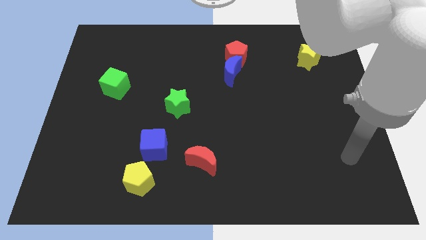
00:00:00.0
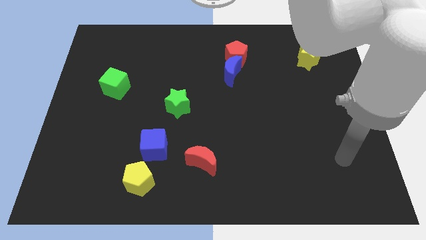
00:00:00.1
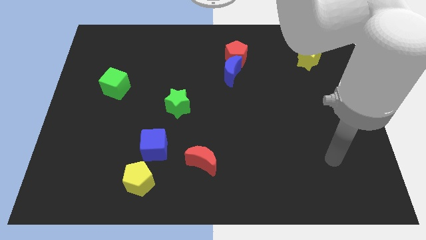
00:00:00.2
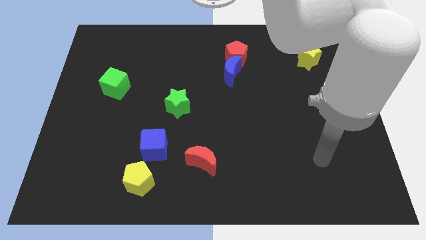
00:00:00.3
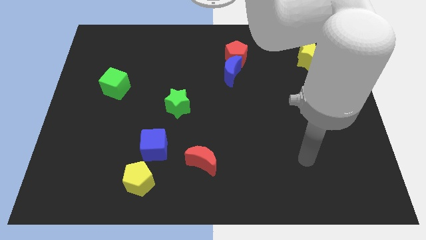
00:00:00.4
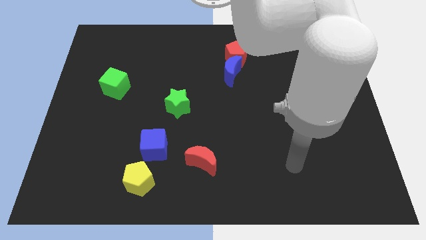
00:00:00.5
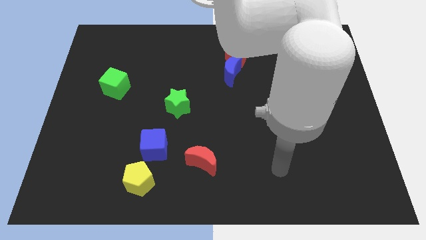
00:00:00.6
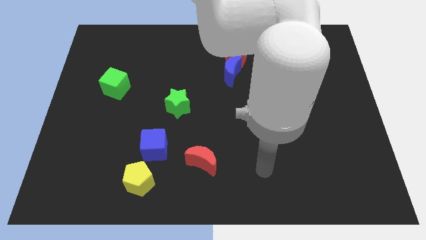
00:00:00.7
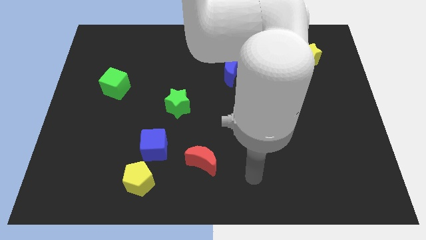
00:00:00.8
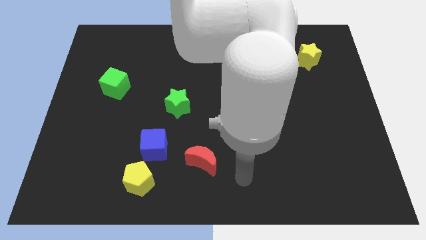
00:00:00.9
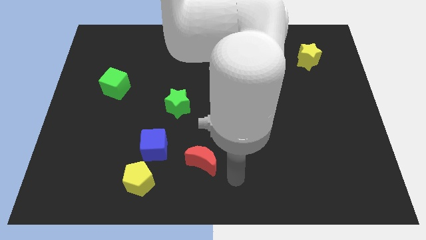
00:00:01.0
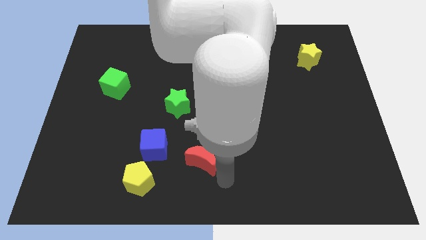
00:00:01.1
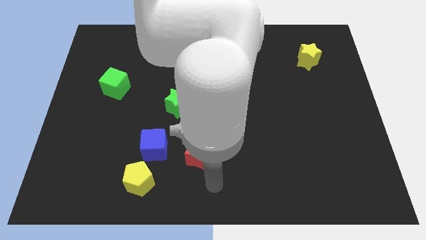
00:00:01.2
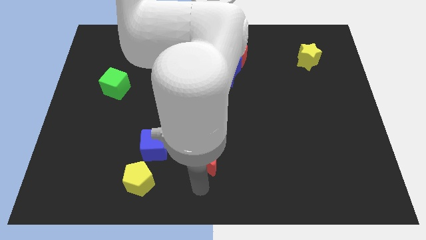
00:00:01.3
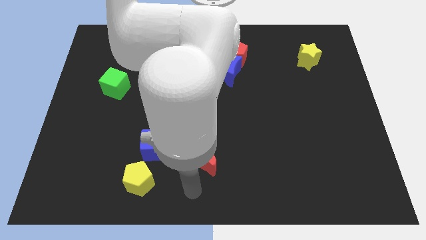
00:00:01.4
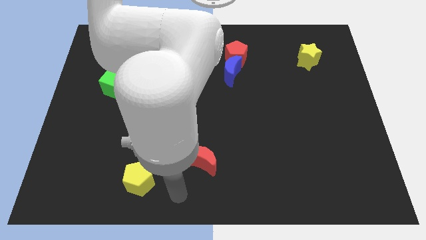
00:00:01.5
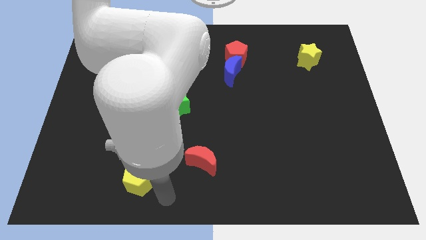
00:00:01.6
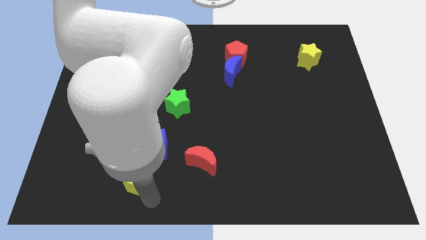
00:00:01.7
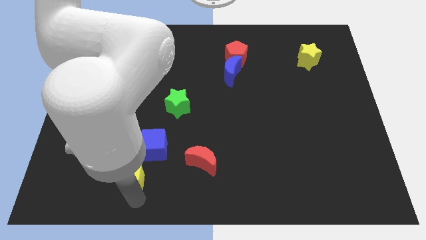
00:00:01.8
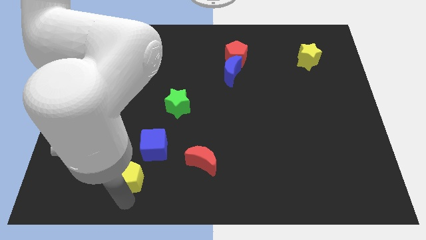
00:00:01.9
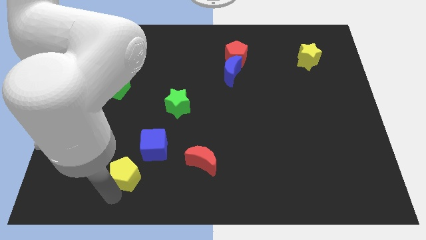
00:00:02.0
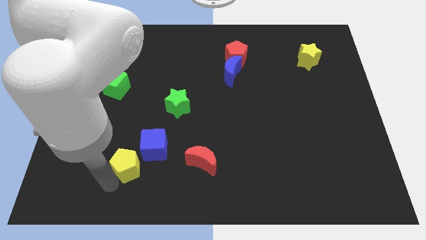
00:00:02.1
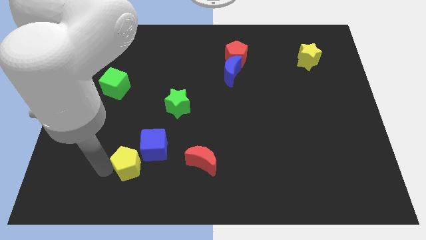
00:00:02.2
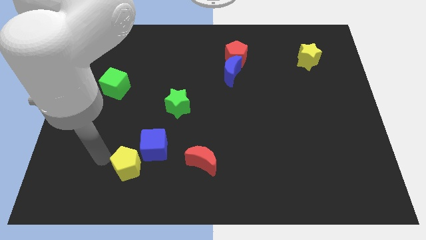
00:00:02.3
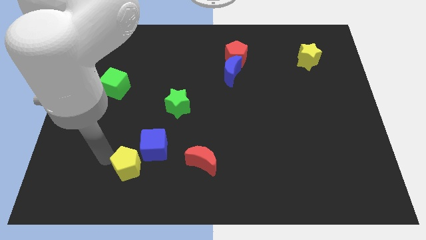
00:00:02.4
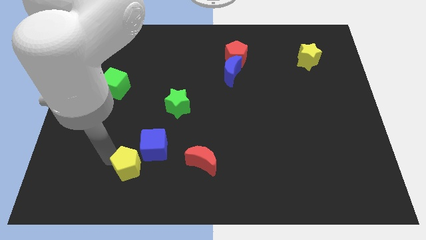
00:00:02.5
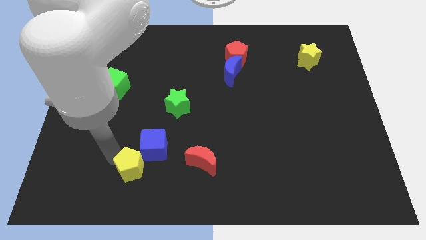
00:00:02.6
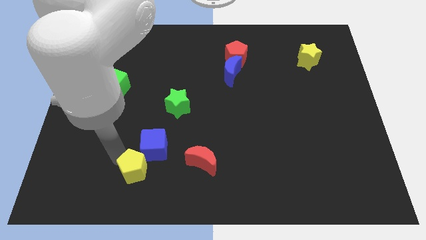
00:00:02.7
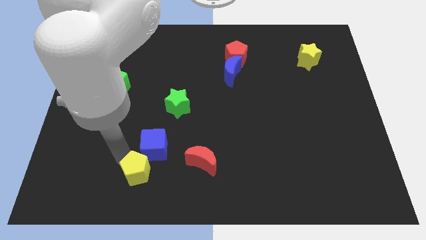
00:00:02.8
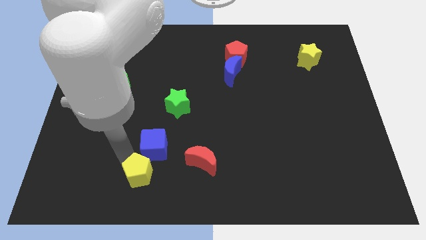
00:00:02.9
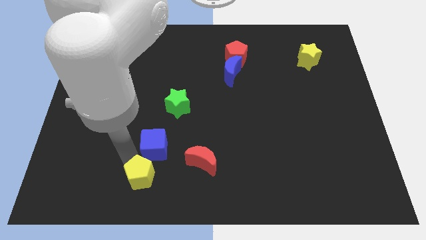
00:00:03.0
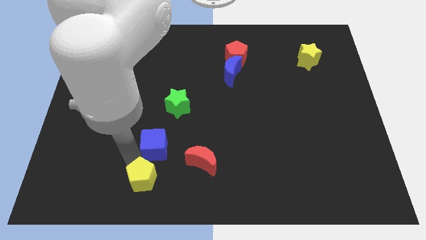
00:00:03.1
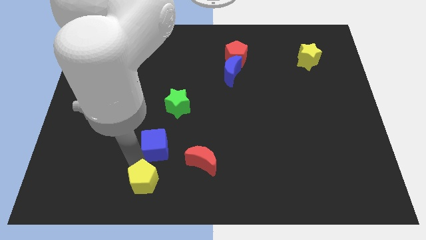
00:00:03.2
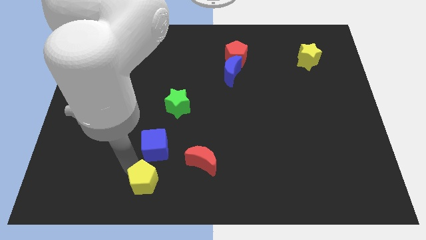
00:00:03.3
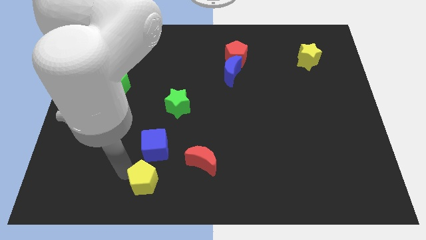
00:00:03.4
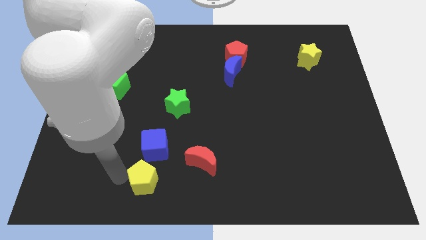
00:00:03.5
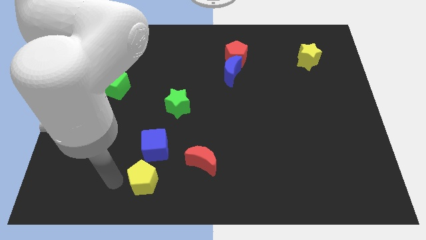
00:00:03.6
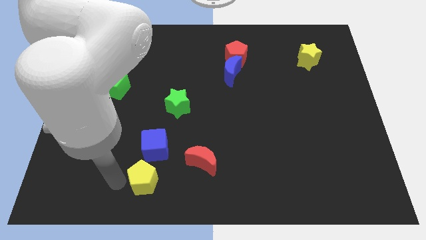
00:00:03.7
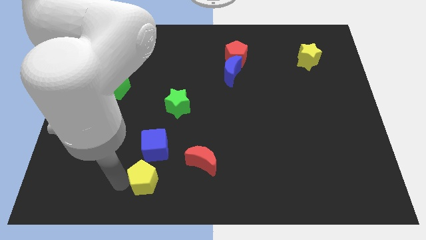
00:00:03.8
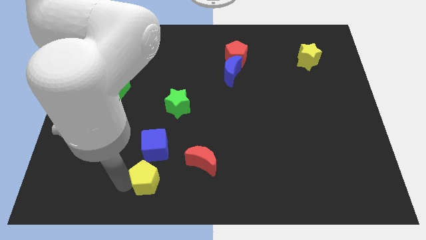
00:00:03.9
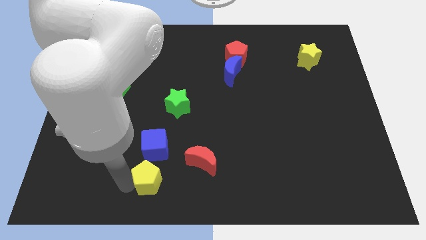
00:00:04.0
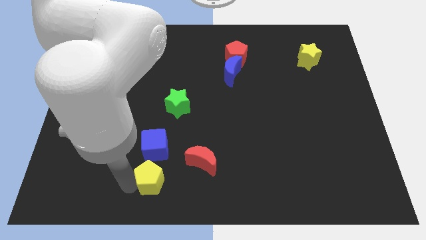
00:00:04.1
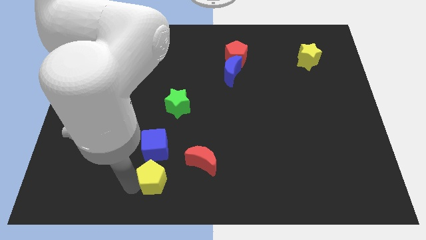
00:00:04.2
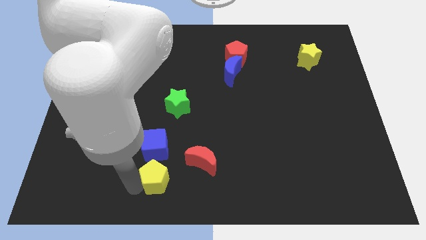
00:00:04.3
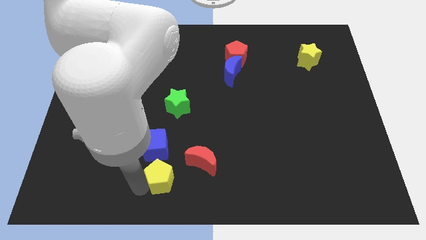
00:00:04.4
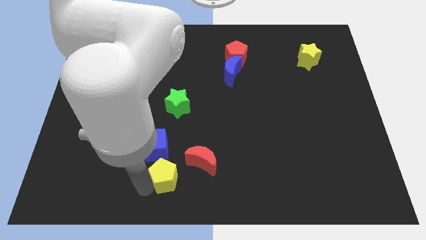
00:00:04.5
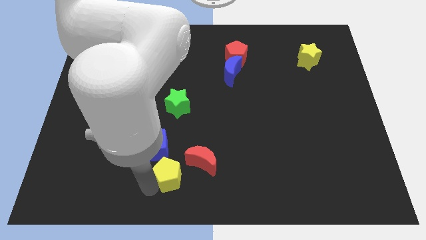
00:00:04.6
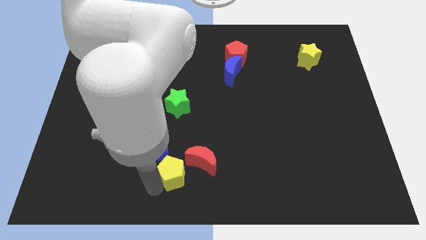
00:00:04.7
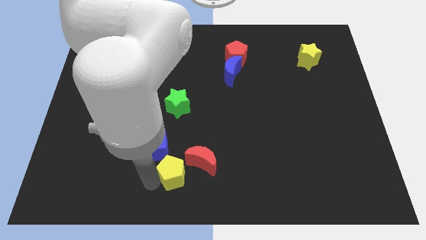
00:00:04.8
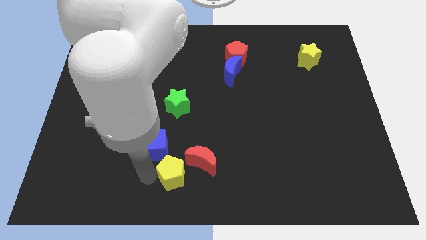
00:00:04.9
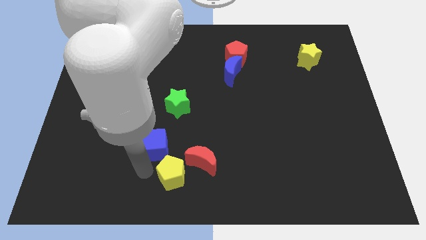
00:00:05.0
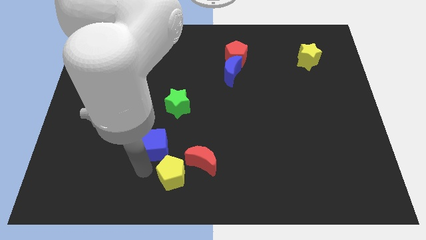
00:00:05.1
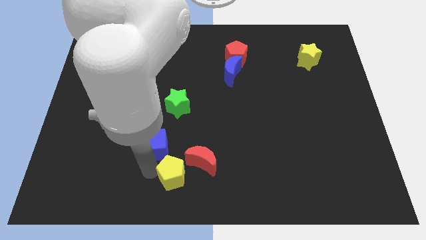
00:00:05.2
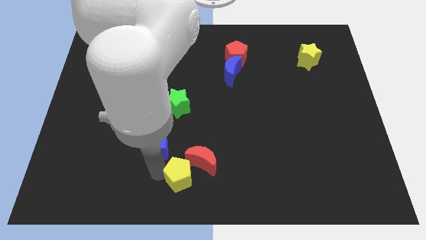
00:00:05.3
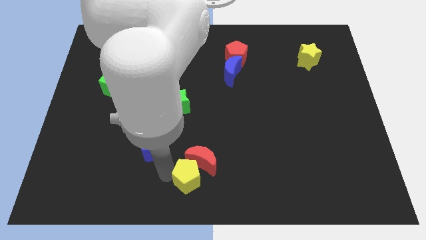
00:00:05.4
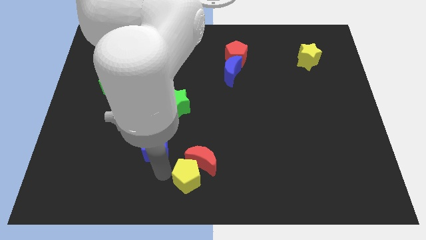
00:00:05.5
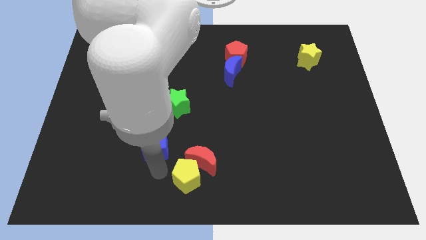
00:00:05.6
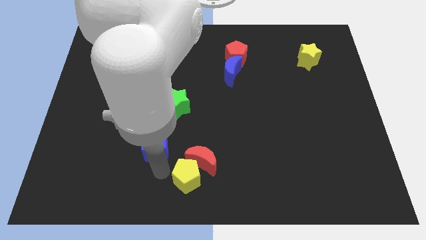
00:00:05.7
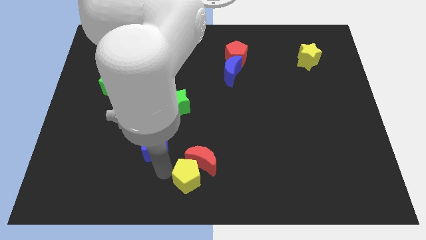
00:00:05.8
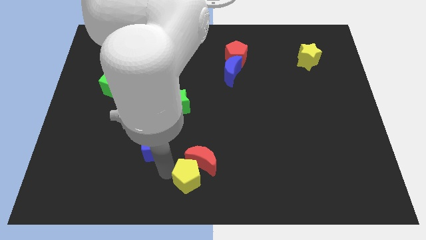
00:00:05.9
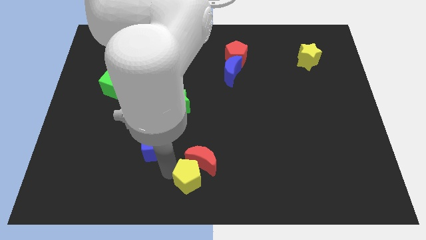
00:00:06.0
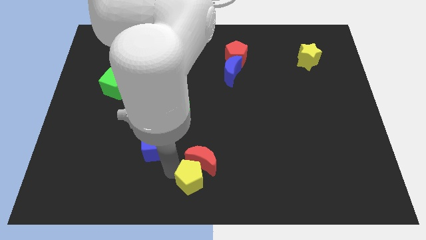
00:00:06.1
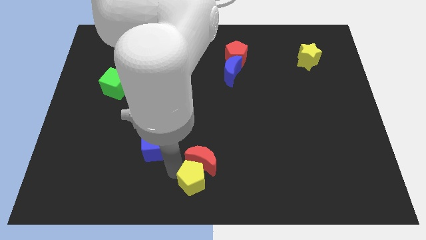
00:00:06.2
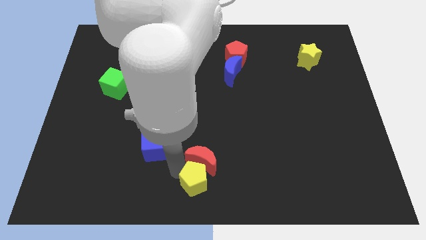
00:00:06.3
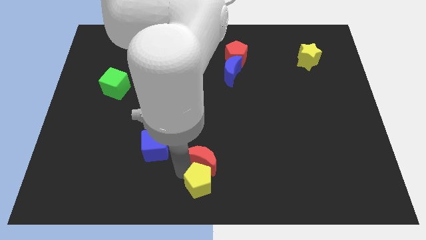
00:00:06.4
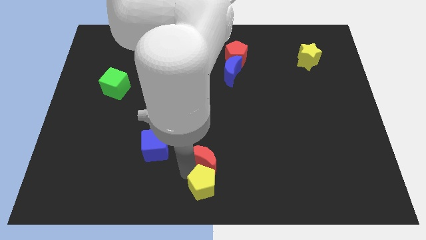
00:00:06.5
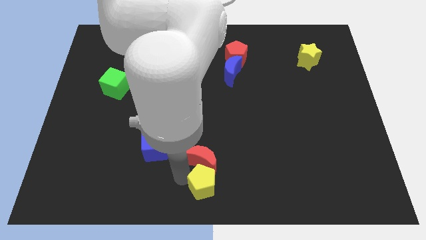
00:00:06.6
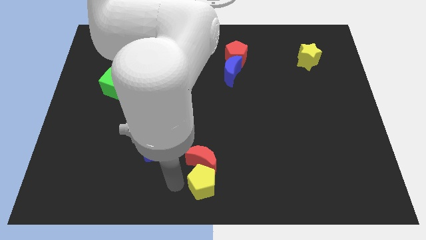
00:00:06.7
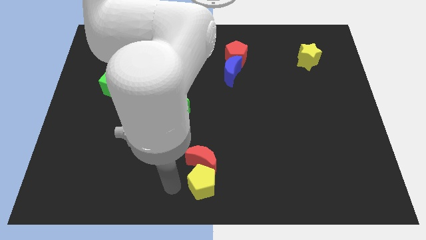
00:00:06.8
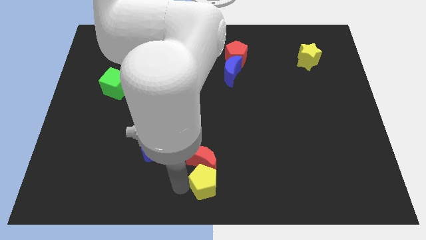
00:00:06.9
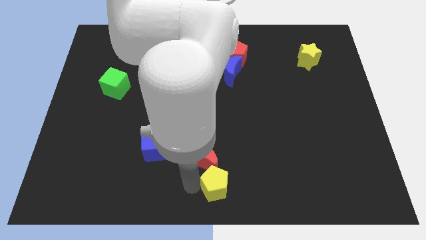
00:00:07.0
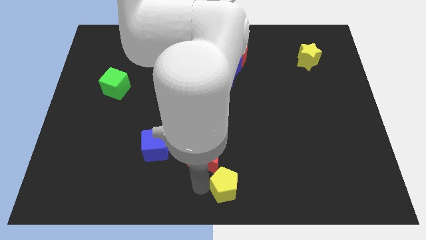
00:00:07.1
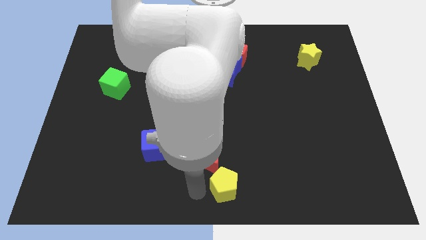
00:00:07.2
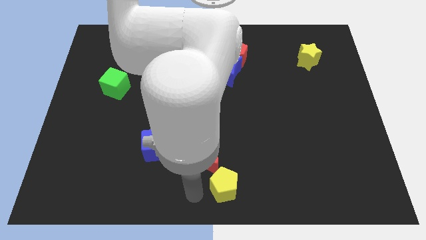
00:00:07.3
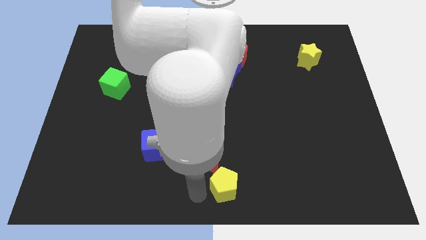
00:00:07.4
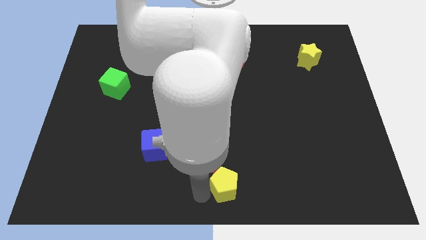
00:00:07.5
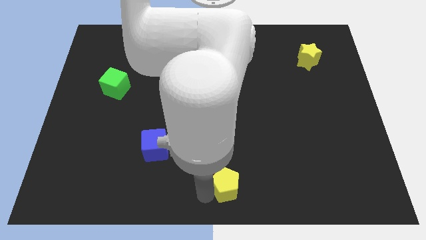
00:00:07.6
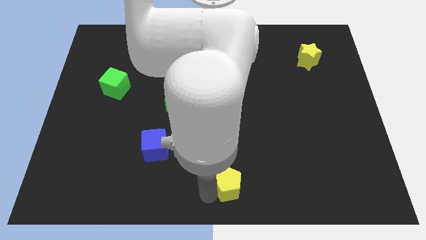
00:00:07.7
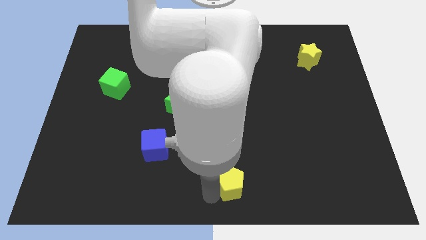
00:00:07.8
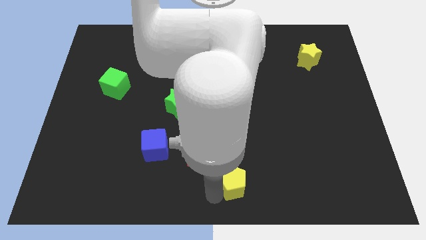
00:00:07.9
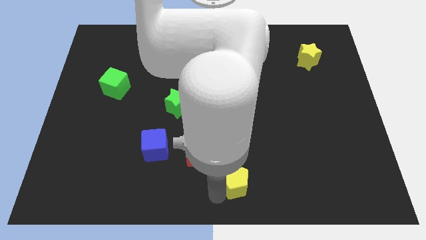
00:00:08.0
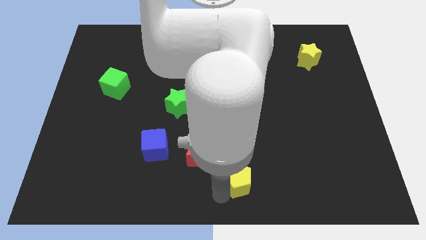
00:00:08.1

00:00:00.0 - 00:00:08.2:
move the yellow pentagon right

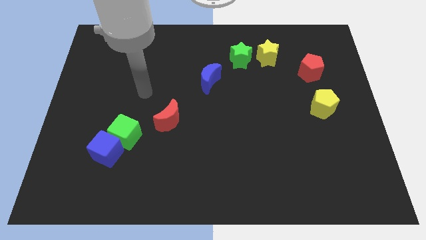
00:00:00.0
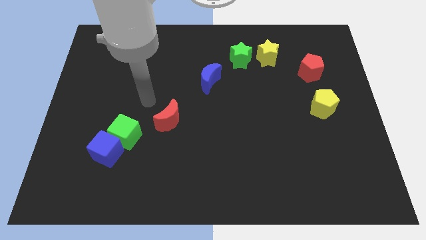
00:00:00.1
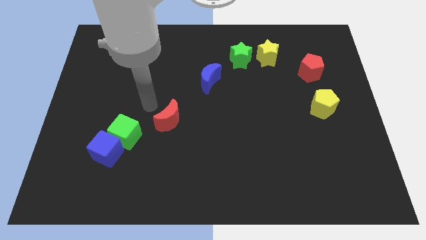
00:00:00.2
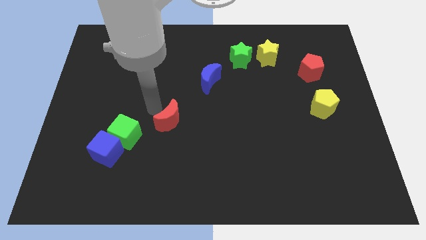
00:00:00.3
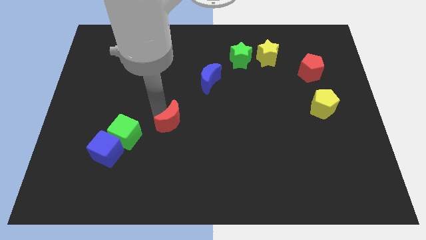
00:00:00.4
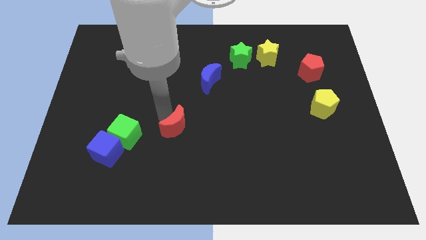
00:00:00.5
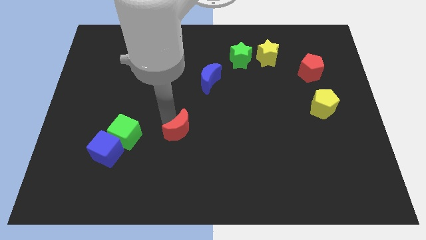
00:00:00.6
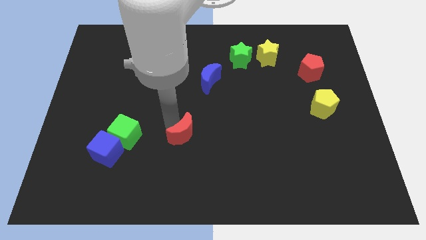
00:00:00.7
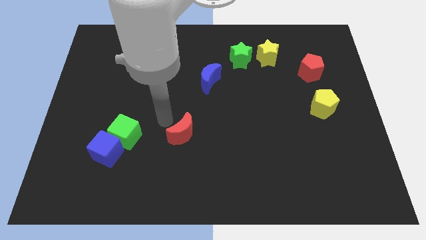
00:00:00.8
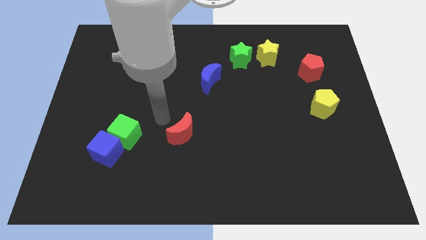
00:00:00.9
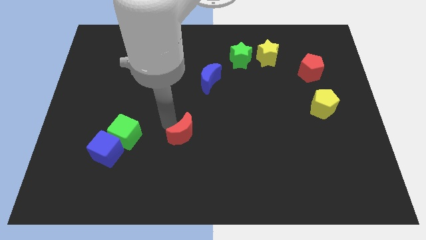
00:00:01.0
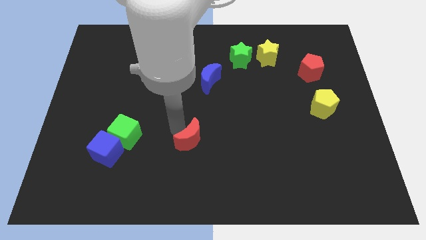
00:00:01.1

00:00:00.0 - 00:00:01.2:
slightly move the red moon down and to the right
